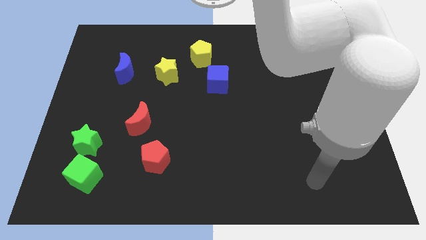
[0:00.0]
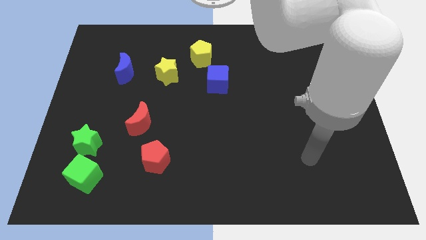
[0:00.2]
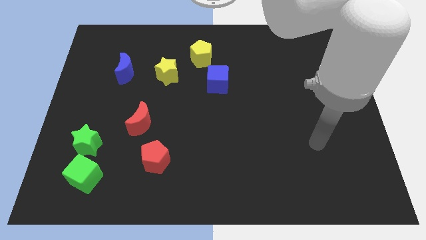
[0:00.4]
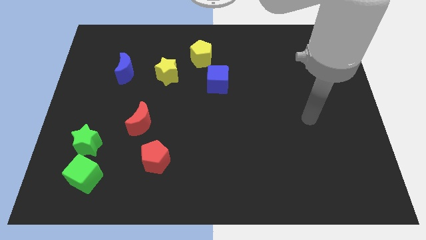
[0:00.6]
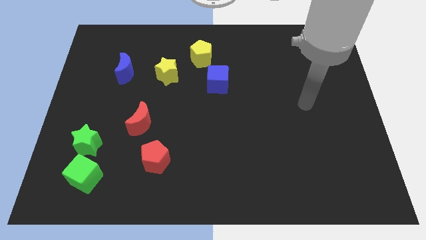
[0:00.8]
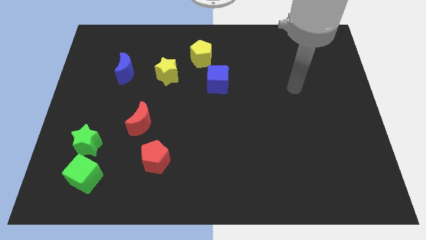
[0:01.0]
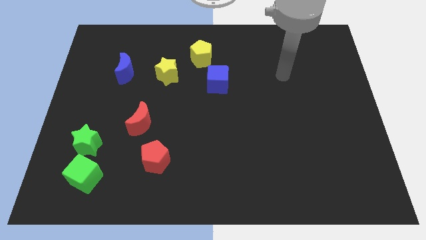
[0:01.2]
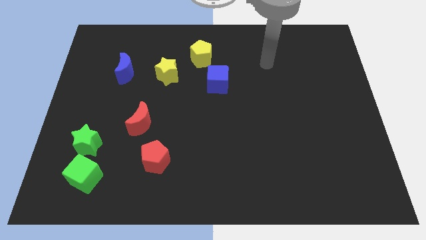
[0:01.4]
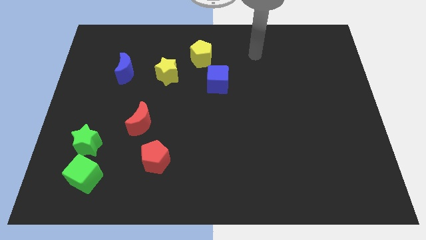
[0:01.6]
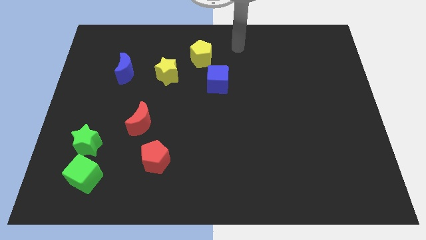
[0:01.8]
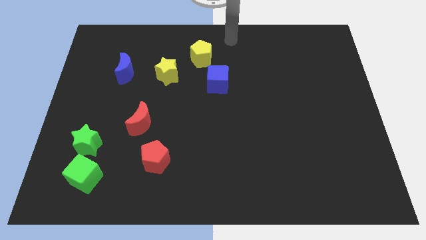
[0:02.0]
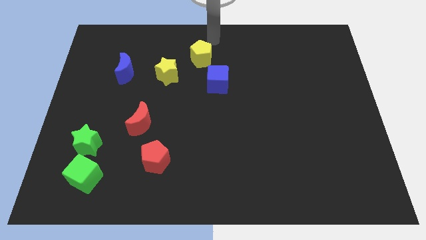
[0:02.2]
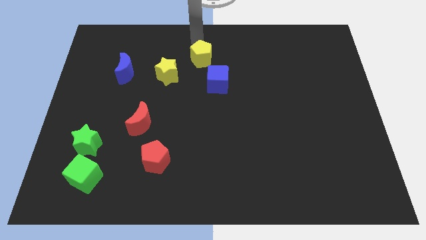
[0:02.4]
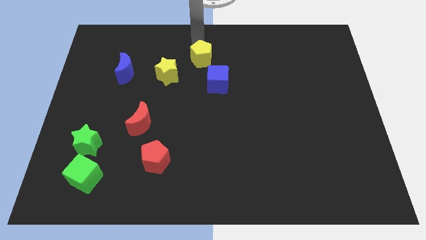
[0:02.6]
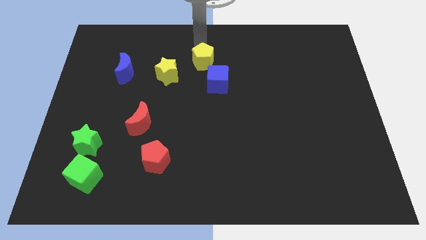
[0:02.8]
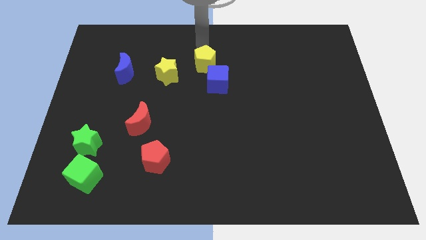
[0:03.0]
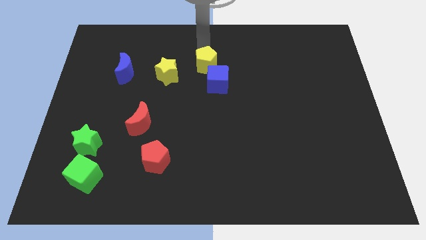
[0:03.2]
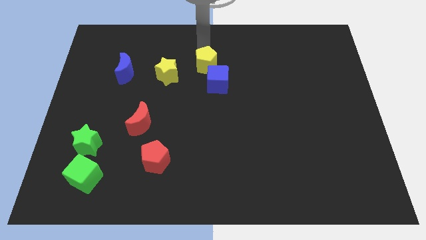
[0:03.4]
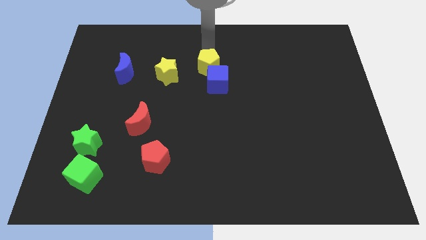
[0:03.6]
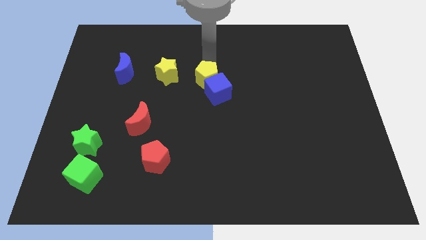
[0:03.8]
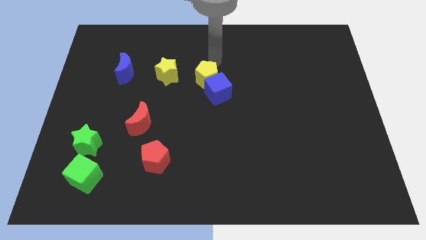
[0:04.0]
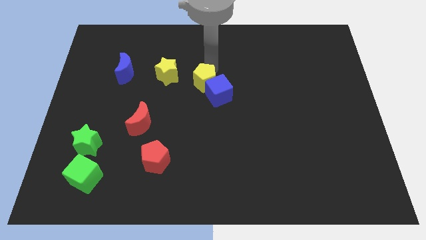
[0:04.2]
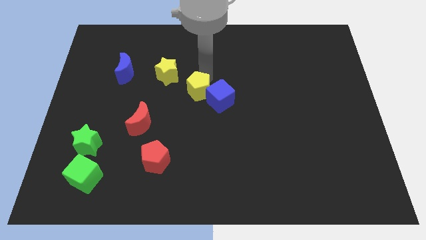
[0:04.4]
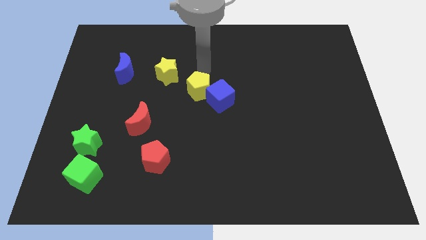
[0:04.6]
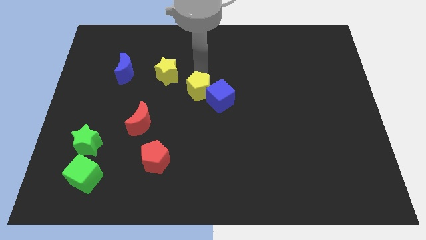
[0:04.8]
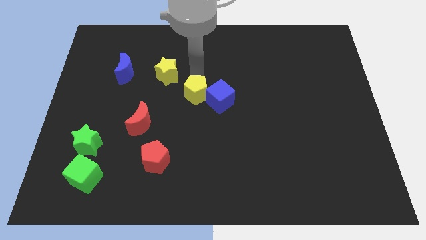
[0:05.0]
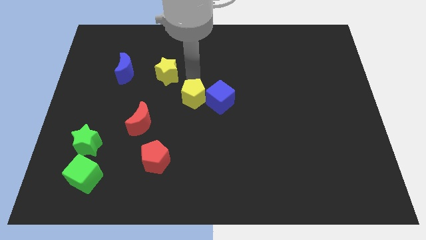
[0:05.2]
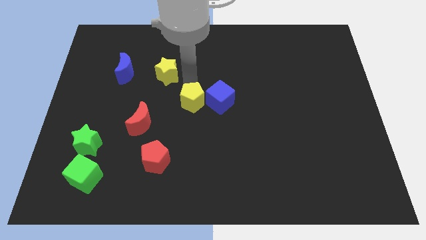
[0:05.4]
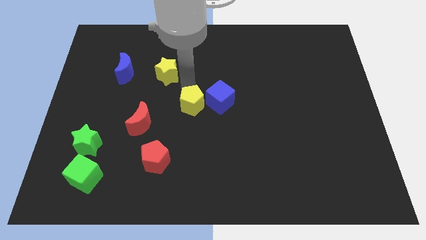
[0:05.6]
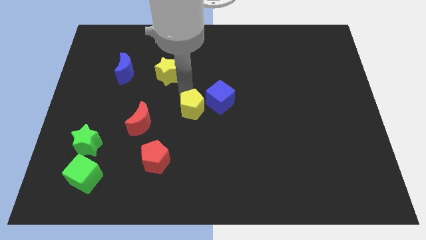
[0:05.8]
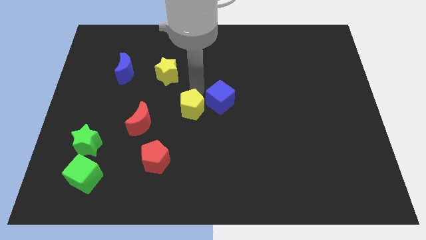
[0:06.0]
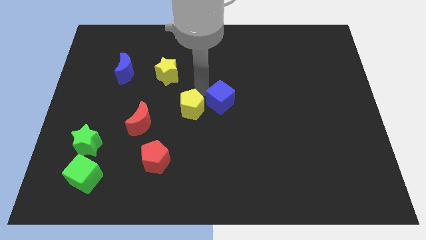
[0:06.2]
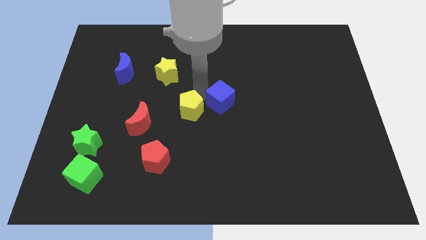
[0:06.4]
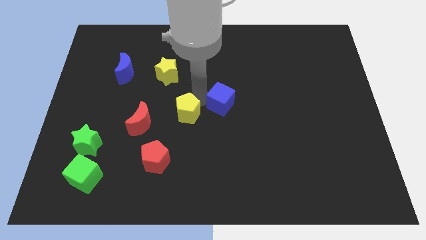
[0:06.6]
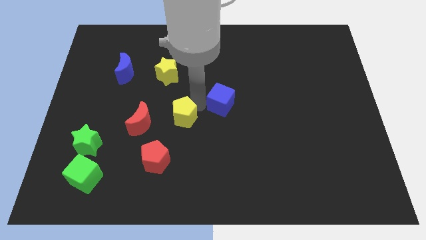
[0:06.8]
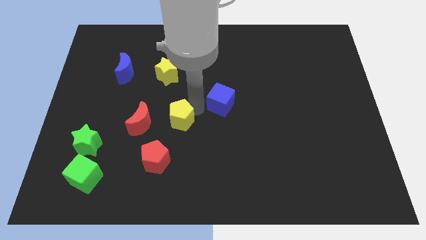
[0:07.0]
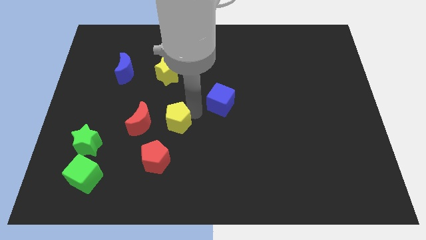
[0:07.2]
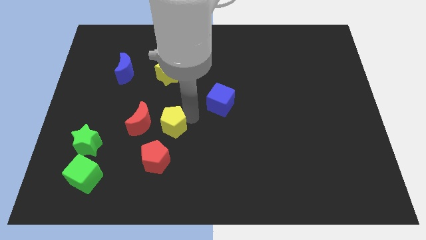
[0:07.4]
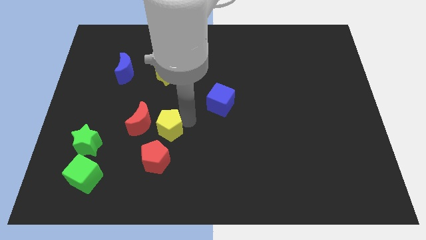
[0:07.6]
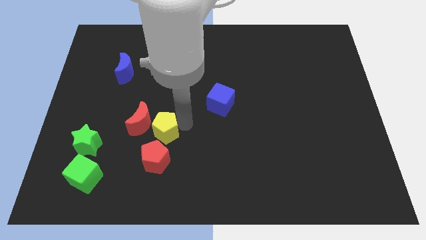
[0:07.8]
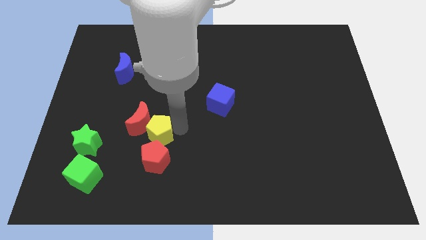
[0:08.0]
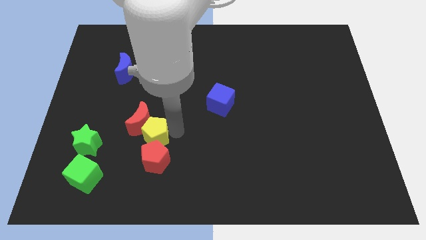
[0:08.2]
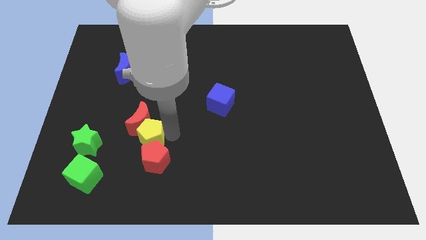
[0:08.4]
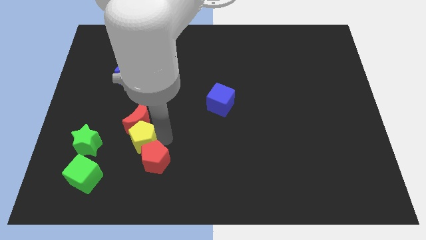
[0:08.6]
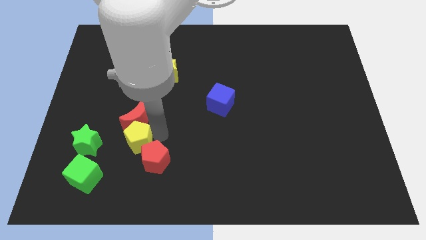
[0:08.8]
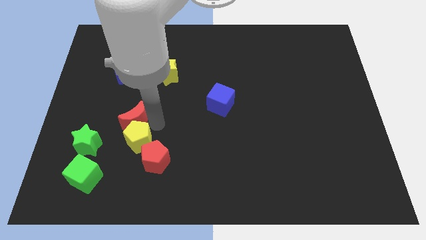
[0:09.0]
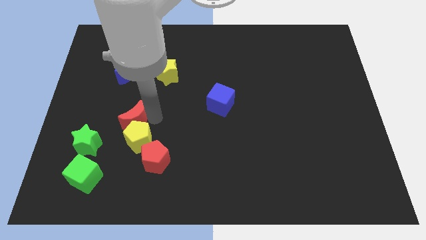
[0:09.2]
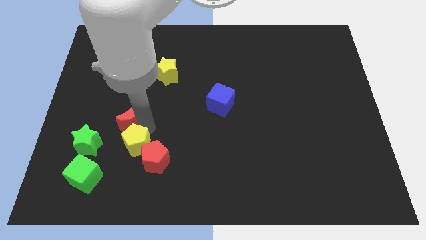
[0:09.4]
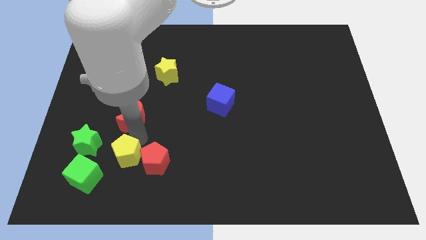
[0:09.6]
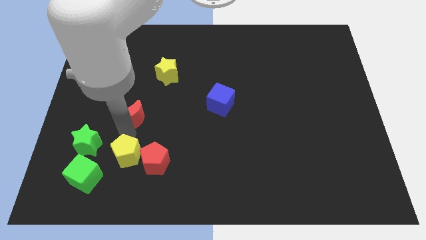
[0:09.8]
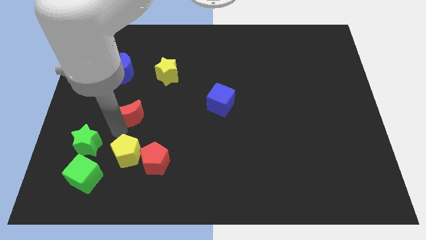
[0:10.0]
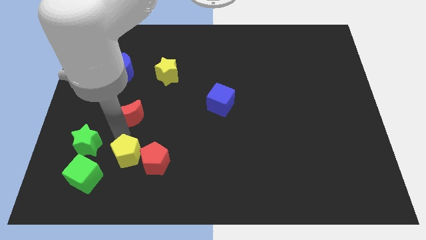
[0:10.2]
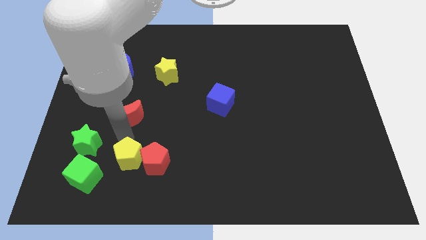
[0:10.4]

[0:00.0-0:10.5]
put the yellow pentagon just right of the green cube

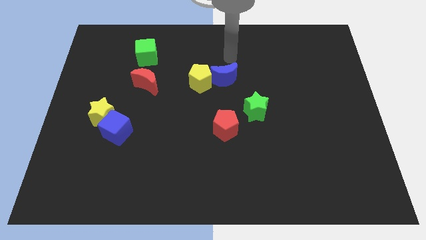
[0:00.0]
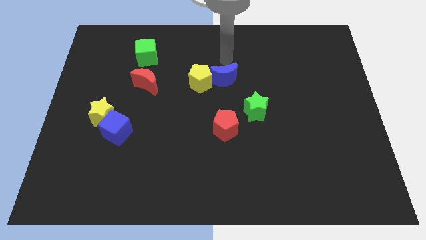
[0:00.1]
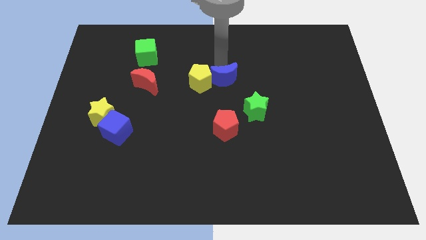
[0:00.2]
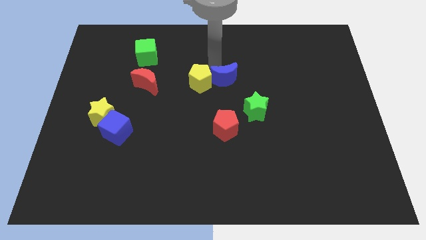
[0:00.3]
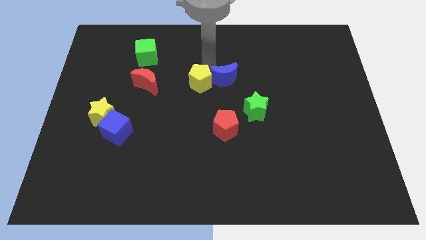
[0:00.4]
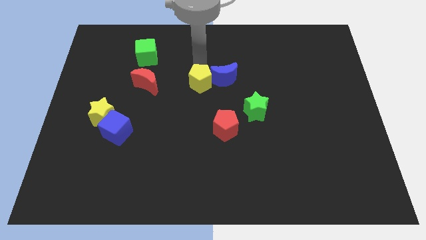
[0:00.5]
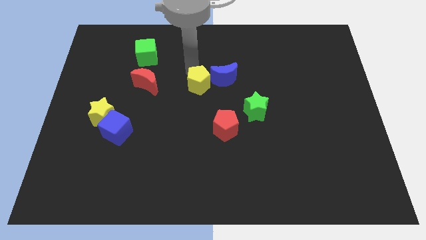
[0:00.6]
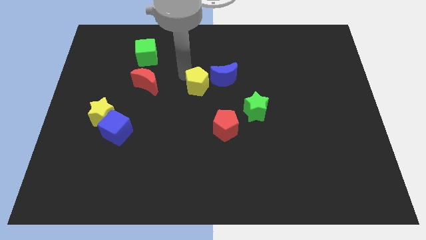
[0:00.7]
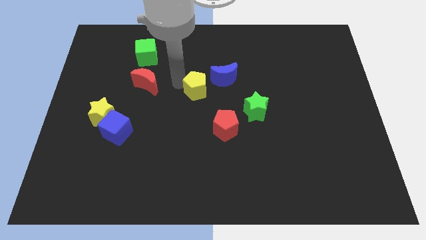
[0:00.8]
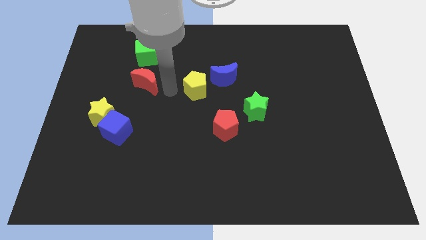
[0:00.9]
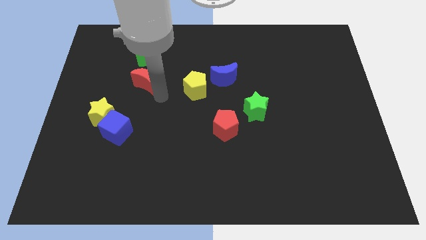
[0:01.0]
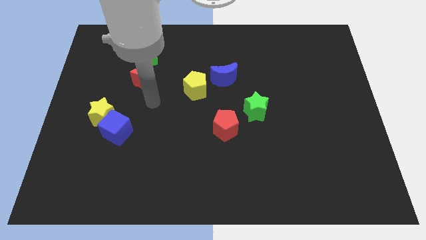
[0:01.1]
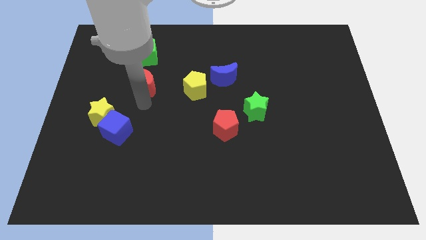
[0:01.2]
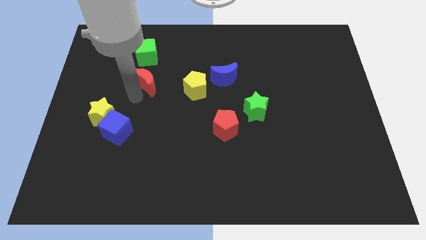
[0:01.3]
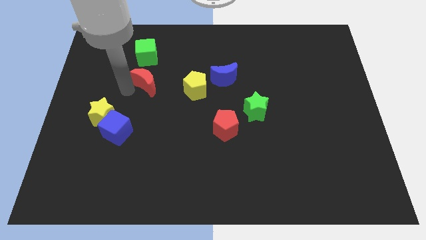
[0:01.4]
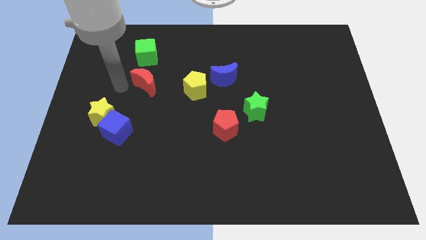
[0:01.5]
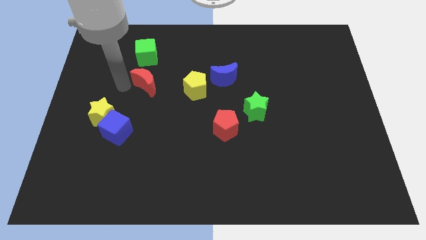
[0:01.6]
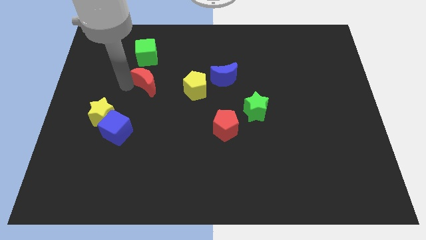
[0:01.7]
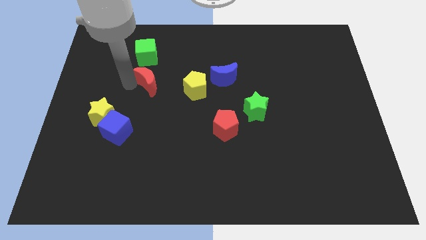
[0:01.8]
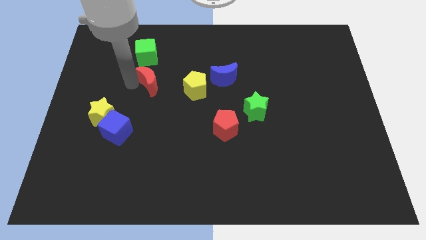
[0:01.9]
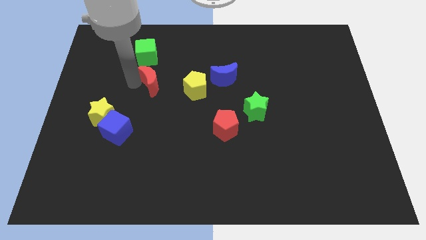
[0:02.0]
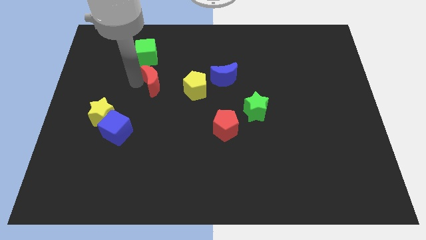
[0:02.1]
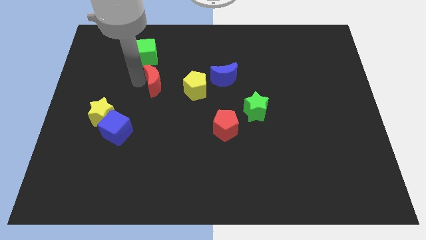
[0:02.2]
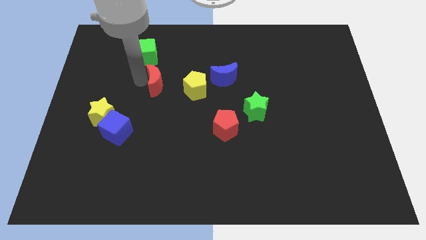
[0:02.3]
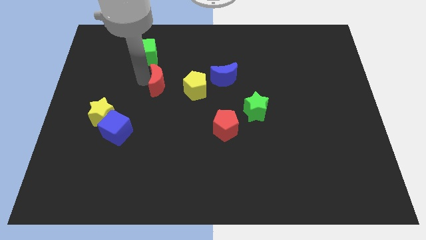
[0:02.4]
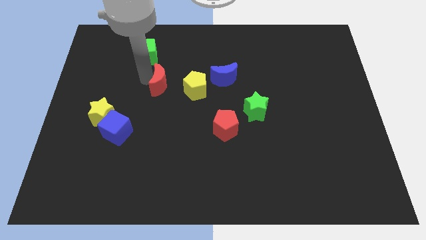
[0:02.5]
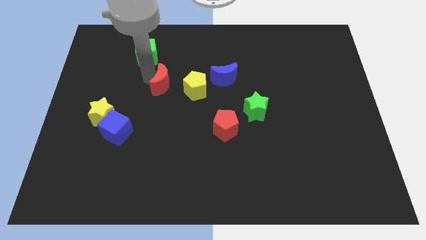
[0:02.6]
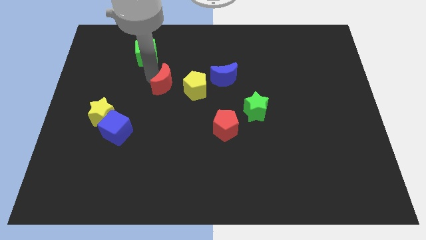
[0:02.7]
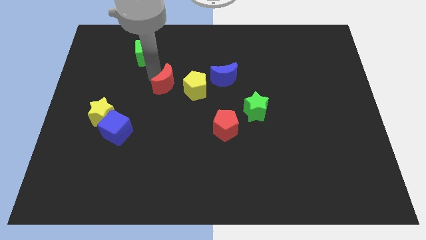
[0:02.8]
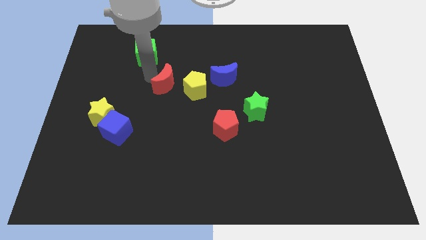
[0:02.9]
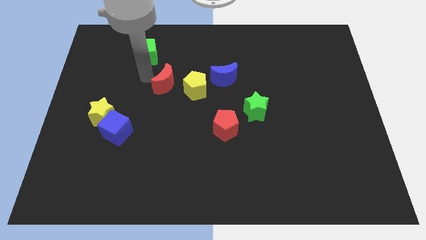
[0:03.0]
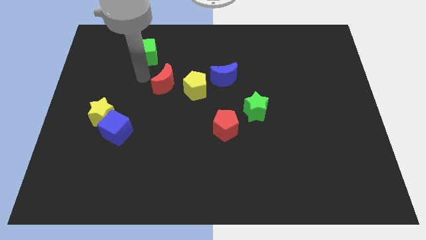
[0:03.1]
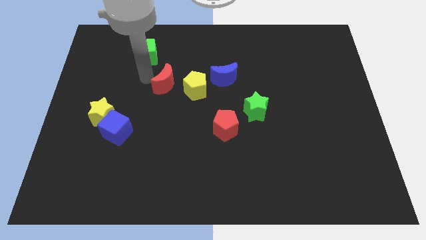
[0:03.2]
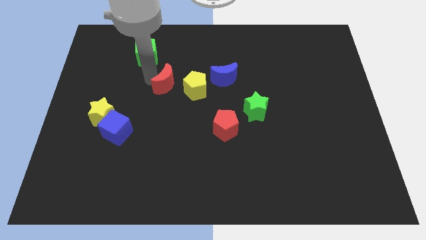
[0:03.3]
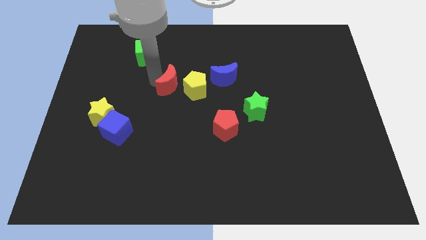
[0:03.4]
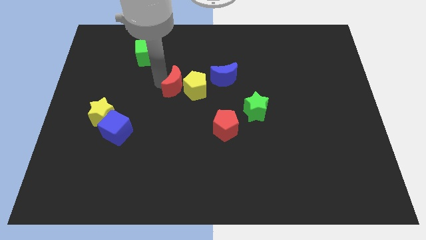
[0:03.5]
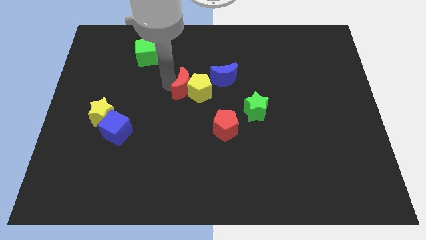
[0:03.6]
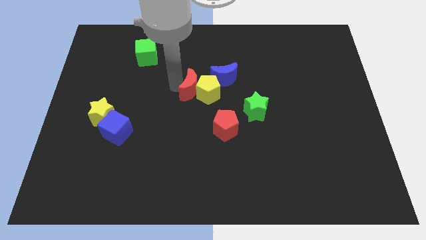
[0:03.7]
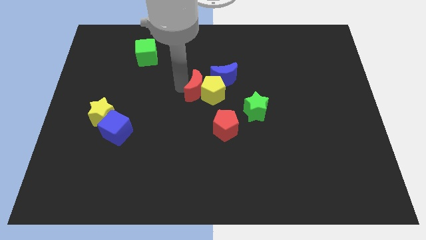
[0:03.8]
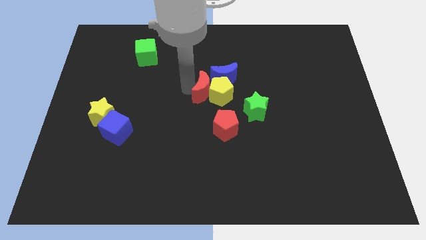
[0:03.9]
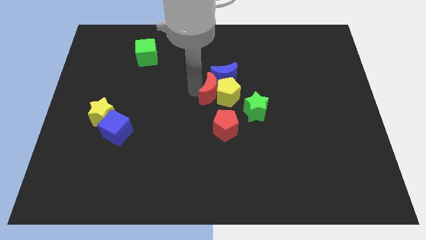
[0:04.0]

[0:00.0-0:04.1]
put the red moon above the red pentagon
